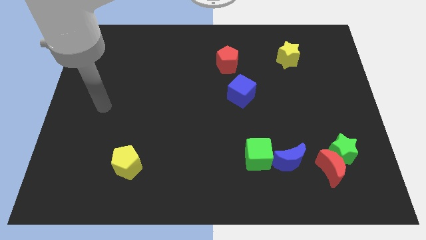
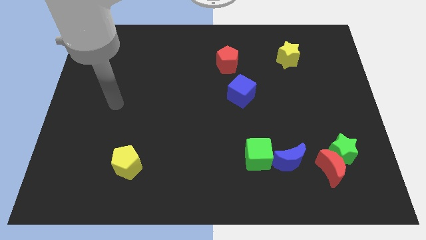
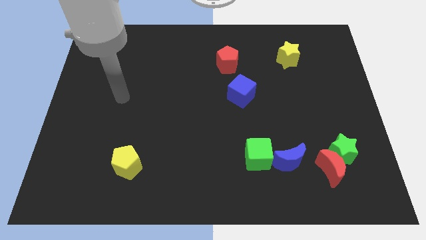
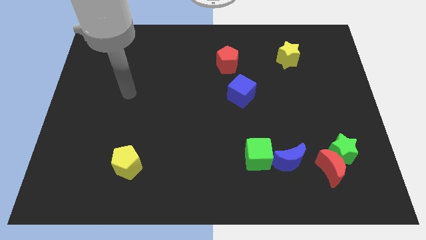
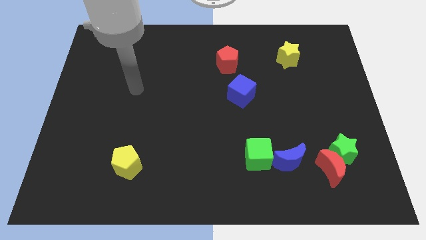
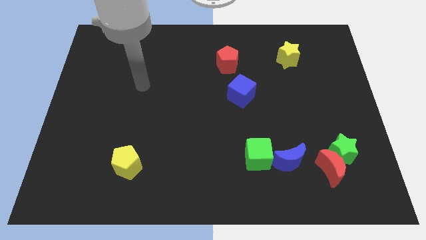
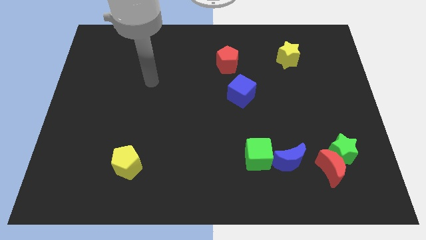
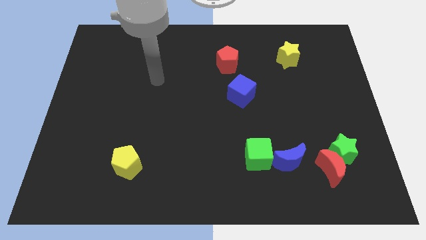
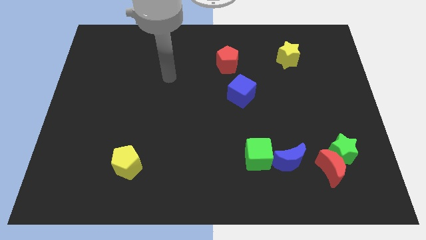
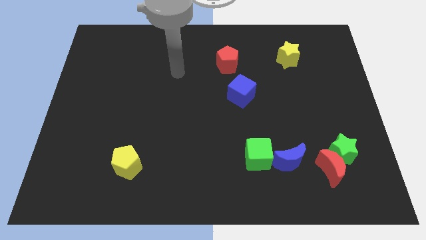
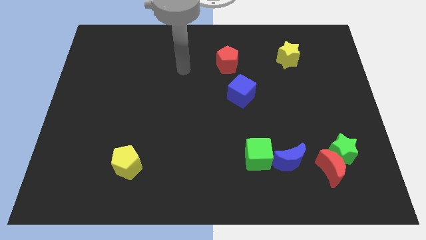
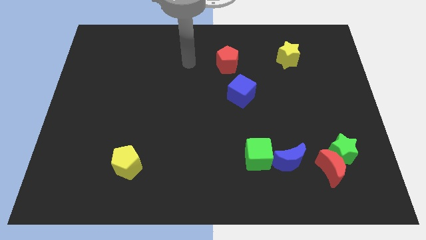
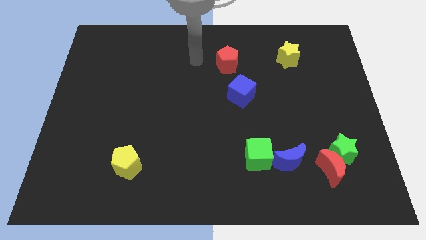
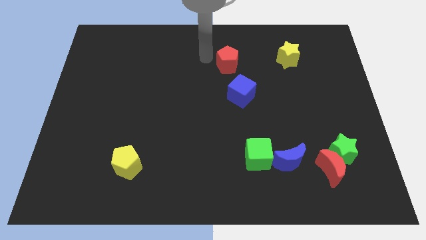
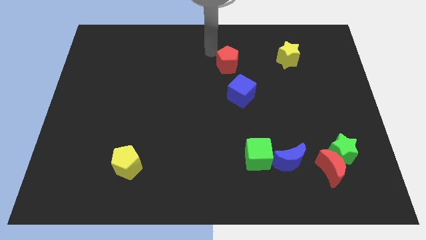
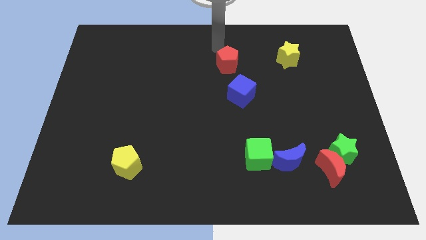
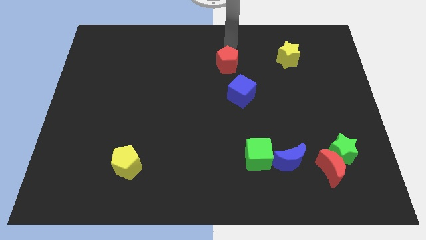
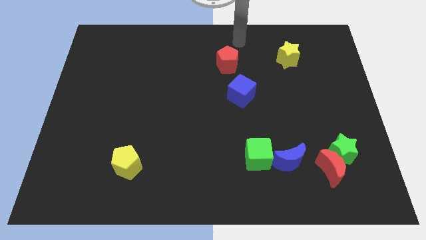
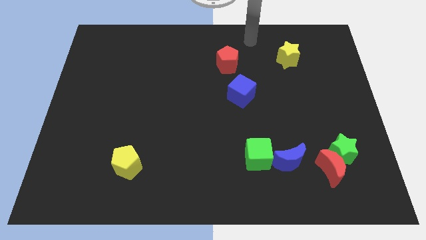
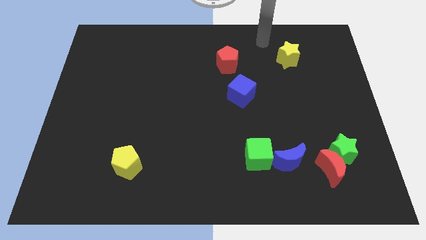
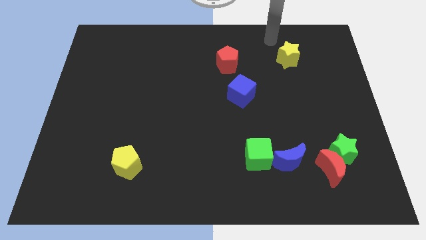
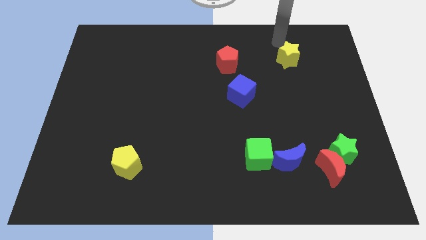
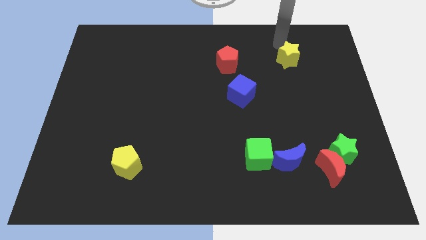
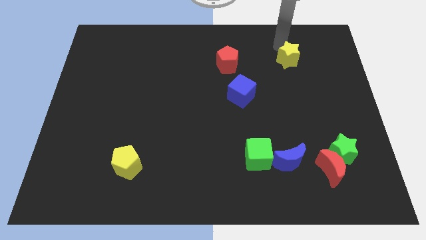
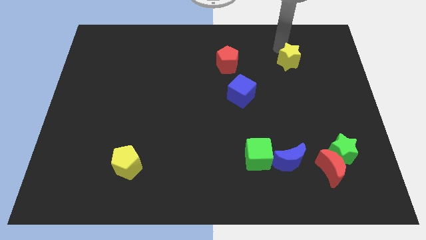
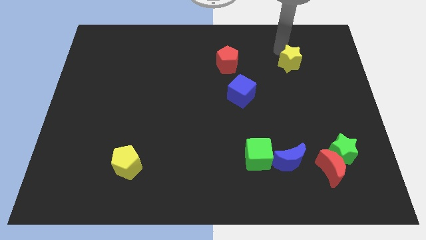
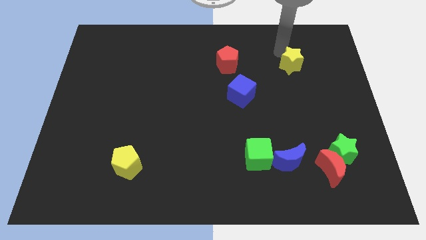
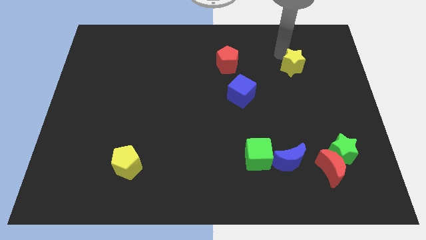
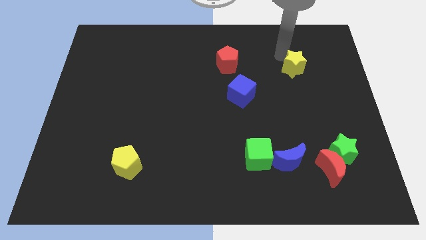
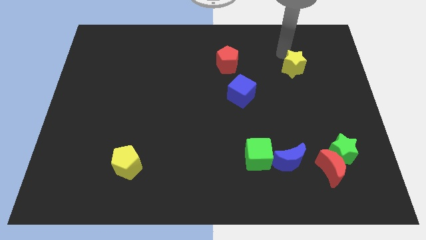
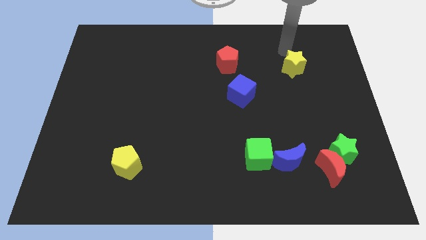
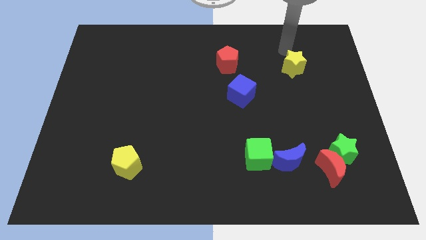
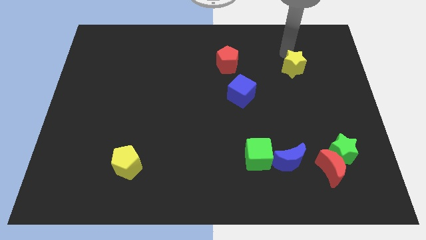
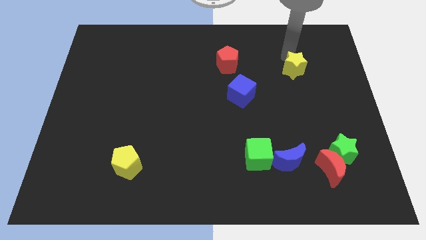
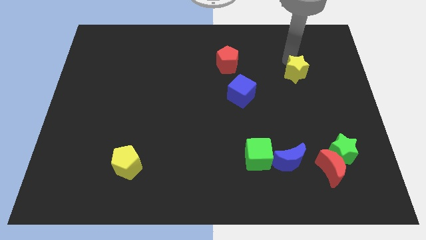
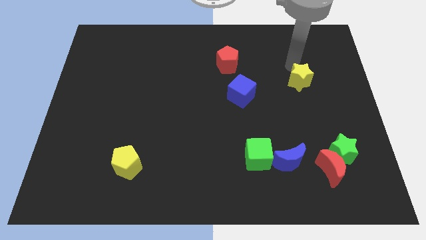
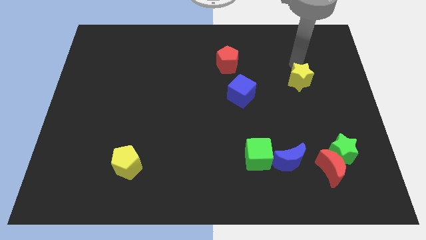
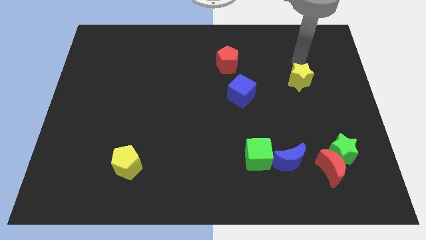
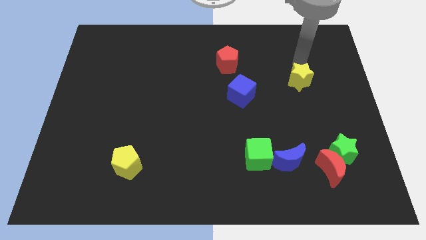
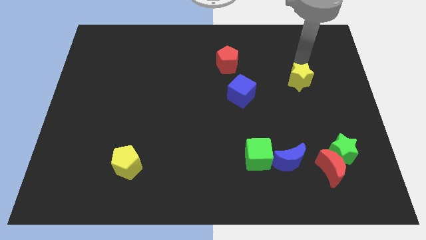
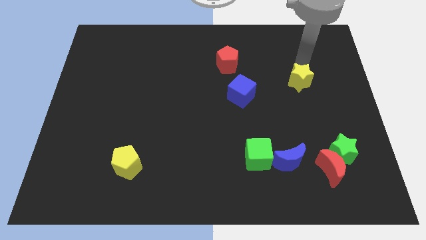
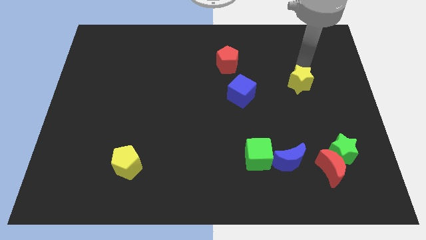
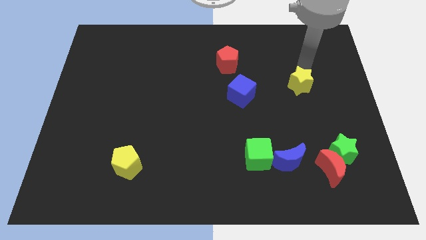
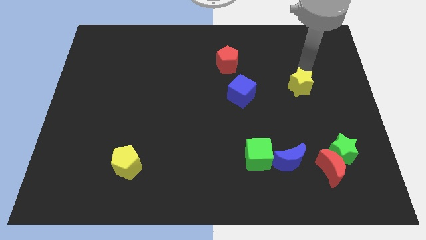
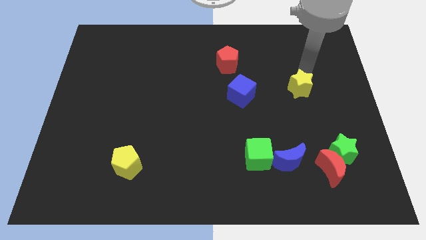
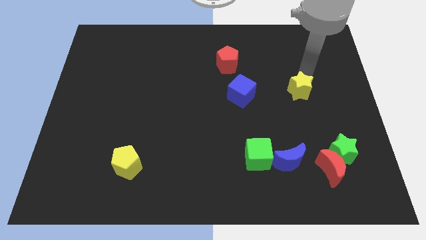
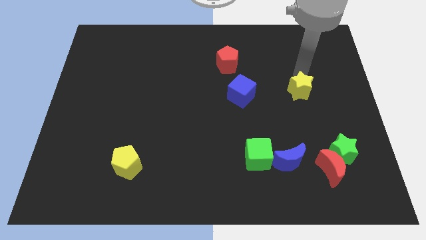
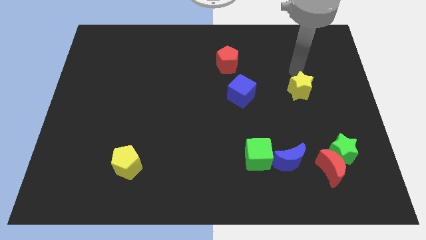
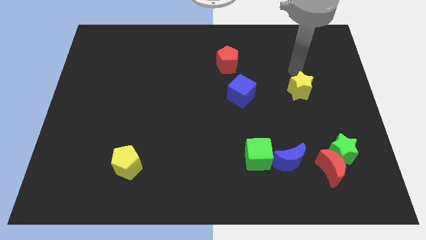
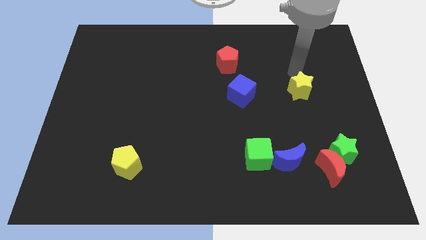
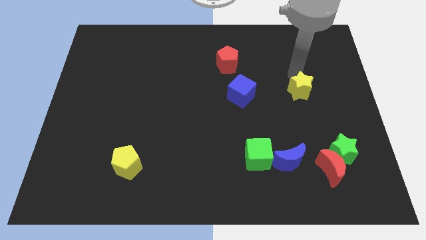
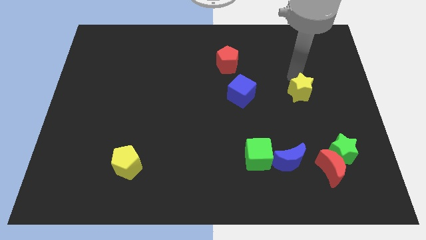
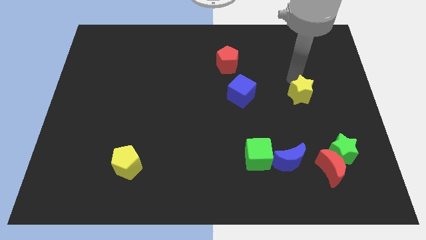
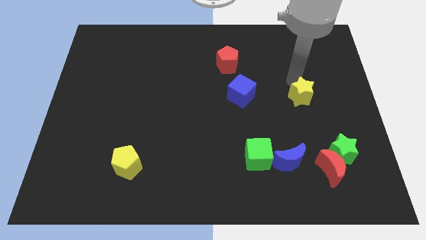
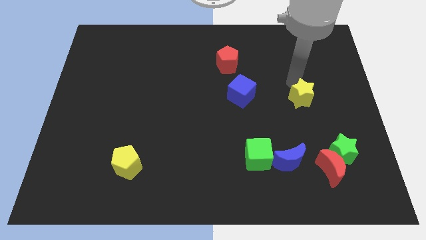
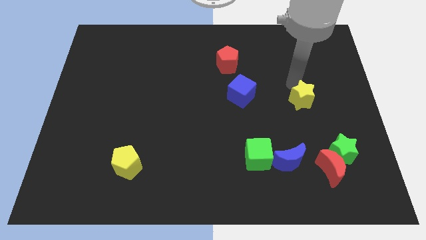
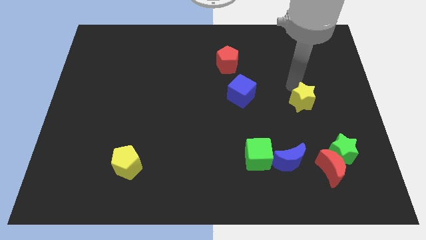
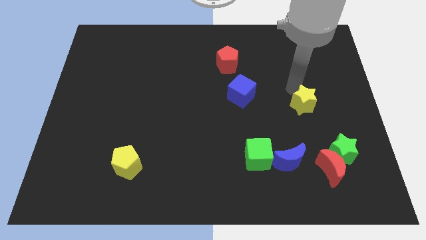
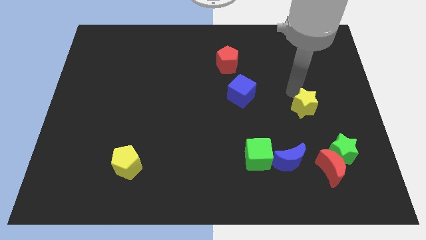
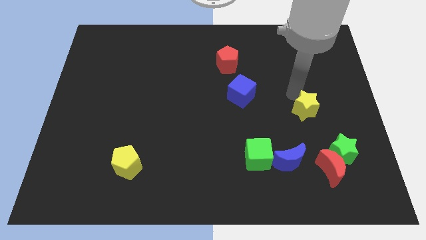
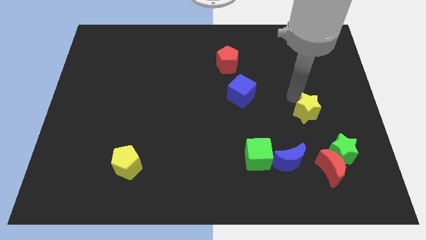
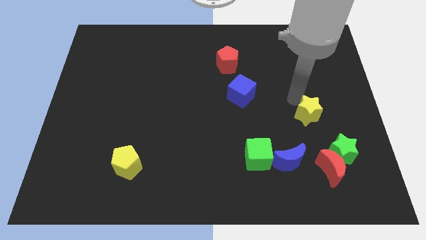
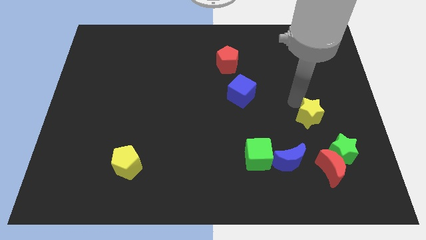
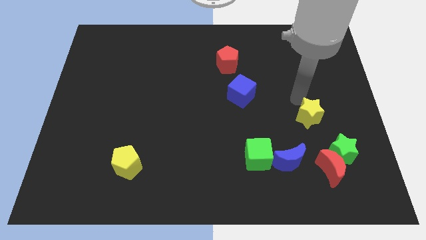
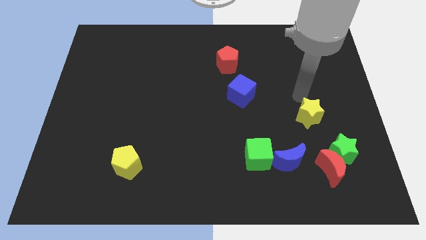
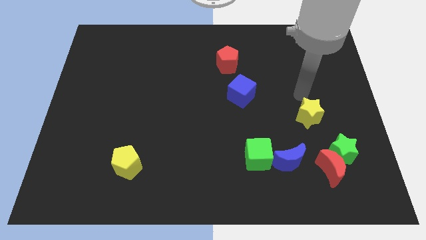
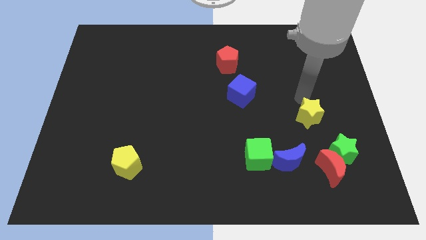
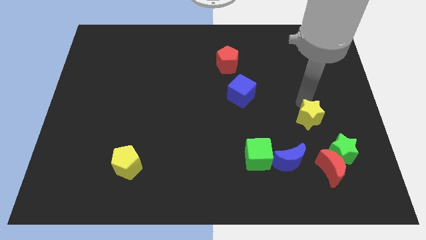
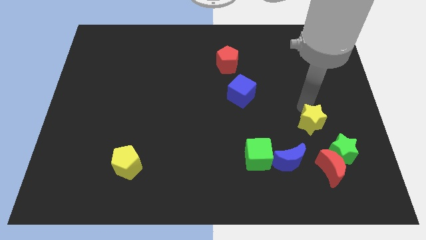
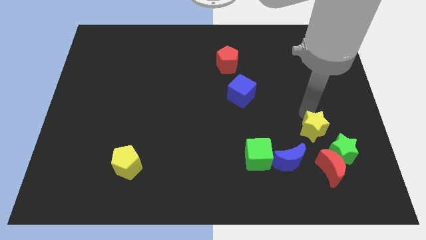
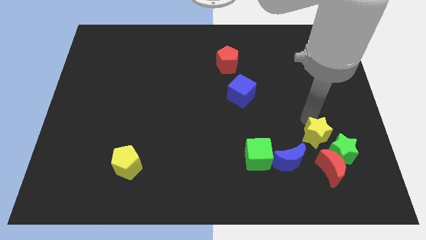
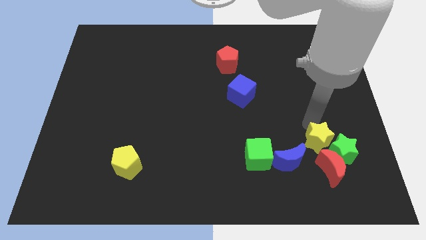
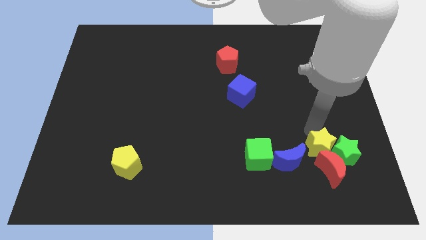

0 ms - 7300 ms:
push the yellow star towards the red moon

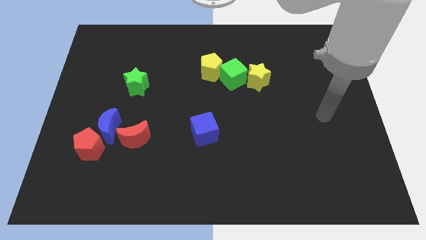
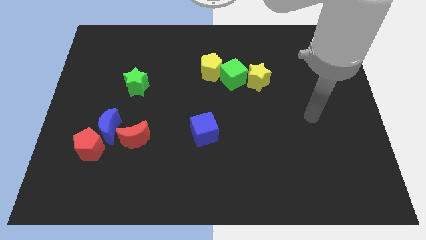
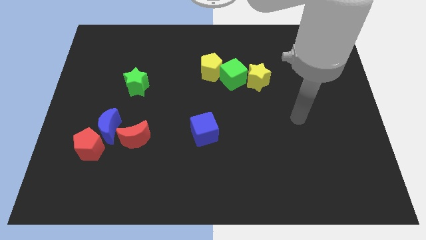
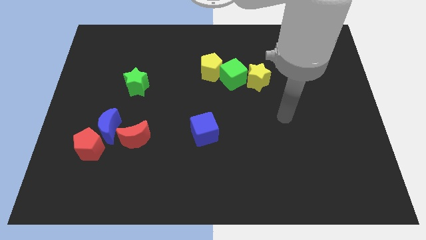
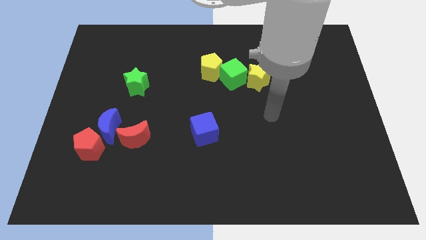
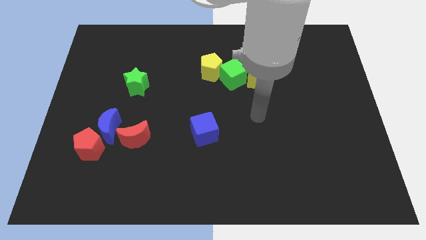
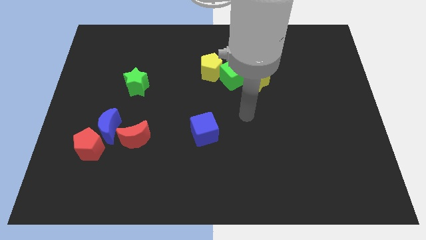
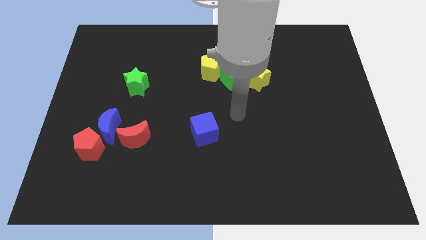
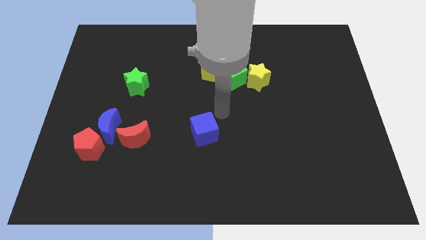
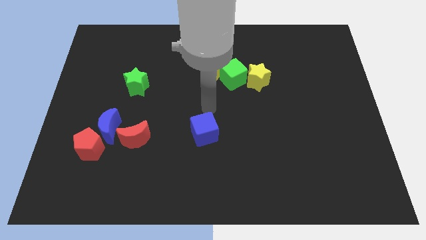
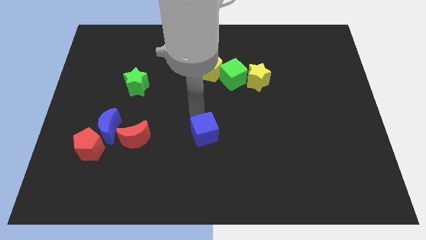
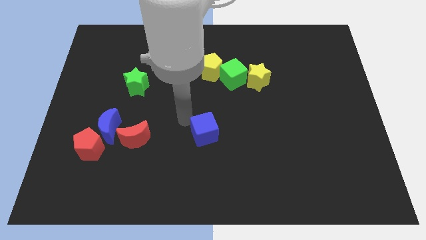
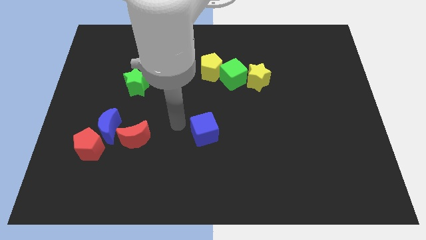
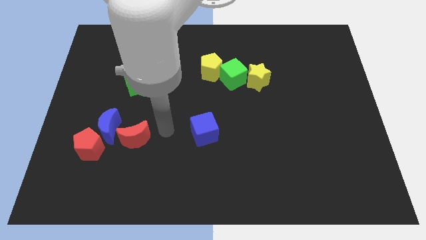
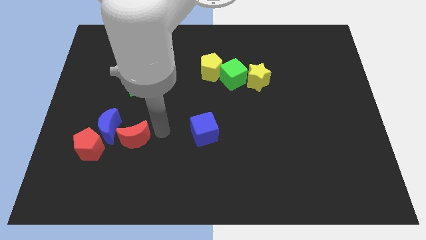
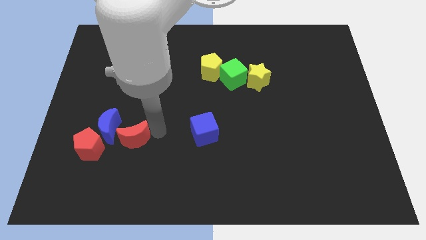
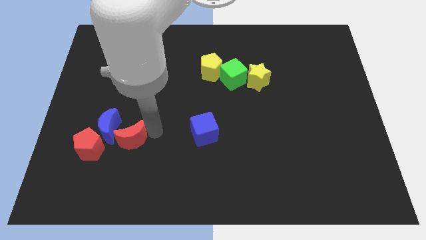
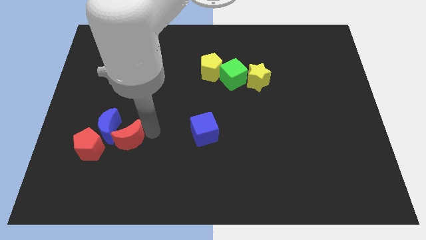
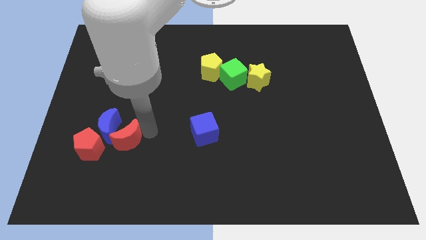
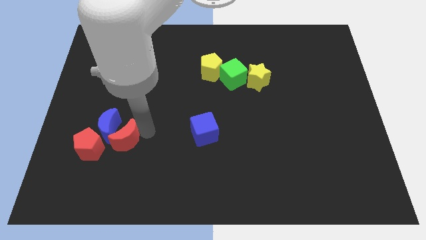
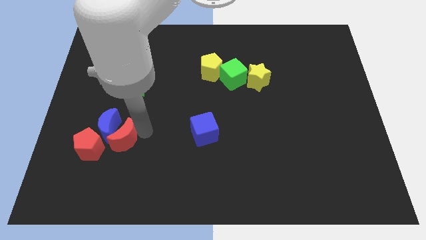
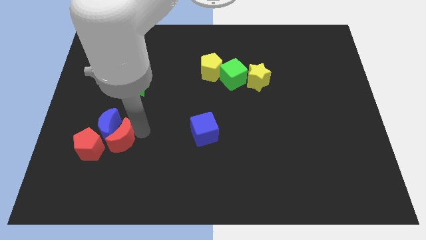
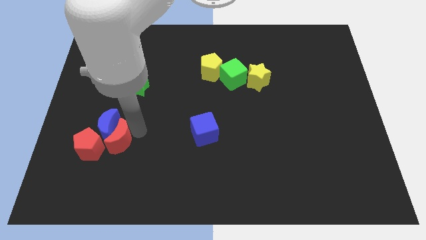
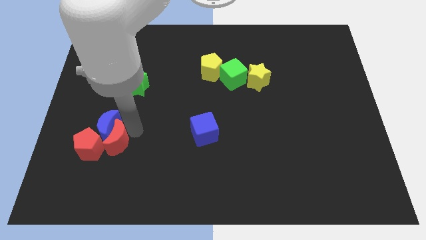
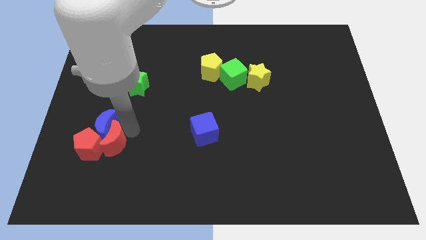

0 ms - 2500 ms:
put the red moon next to the red pentagon
